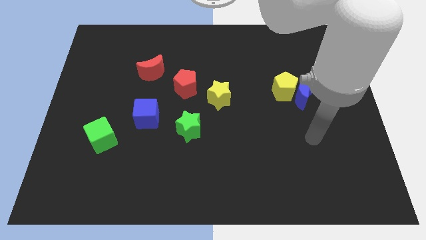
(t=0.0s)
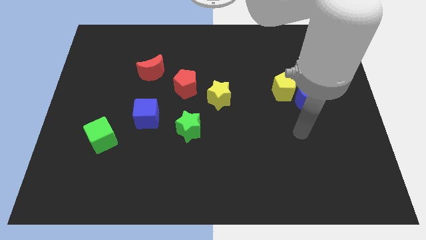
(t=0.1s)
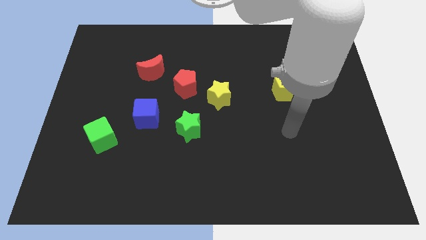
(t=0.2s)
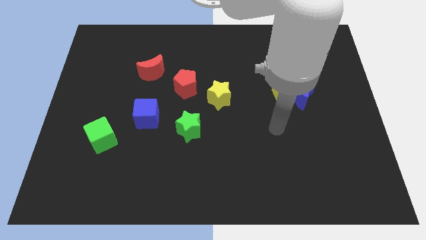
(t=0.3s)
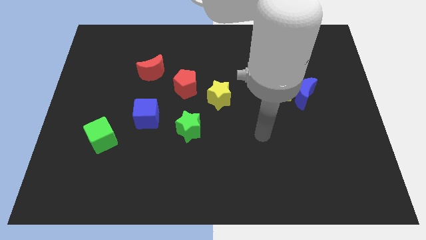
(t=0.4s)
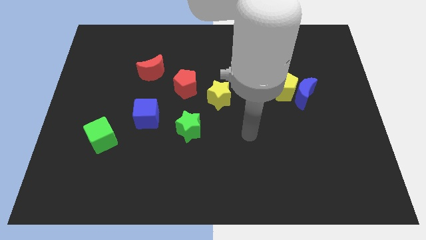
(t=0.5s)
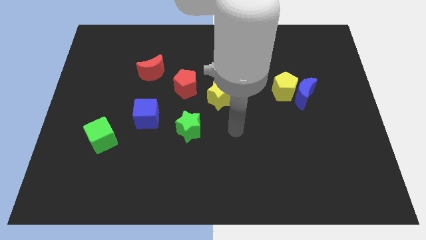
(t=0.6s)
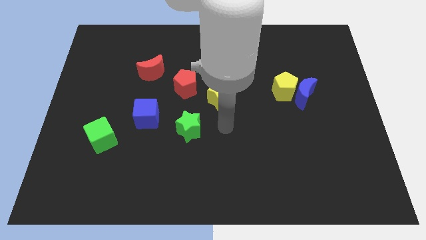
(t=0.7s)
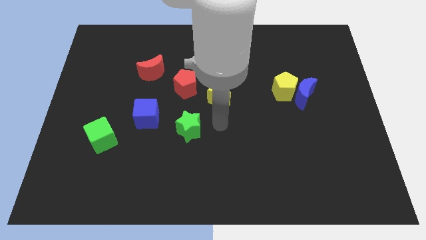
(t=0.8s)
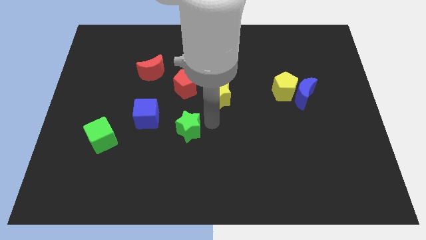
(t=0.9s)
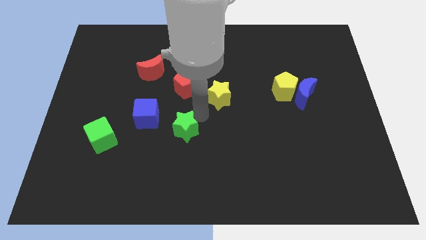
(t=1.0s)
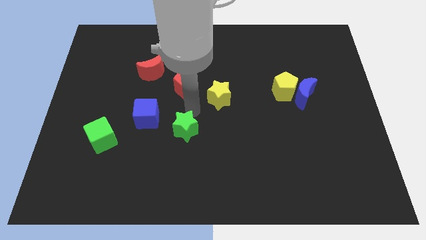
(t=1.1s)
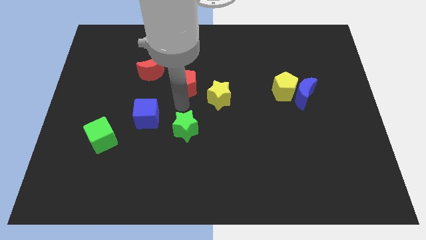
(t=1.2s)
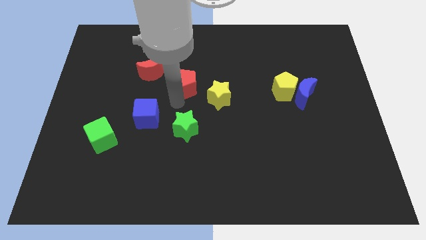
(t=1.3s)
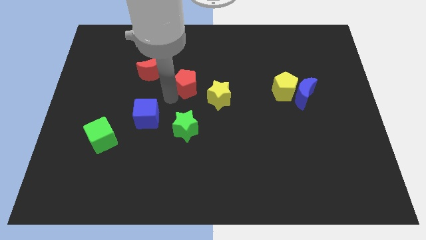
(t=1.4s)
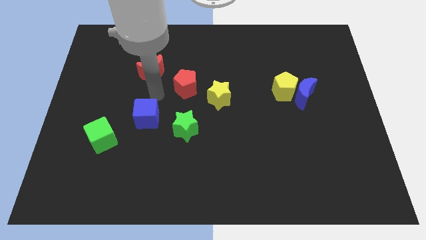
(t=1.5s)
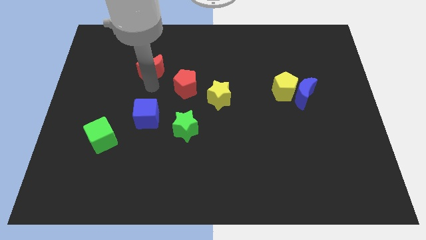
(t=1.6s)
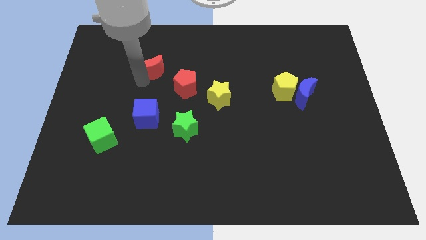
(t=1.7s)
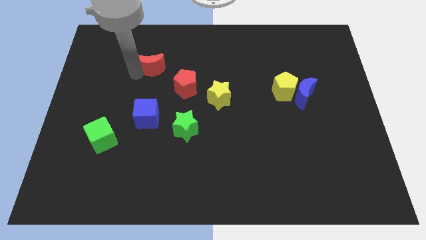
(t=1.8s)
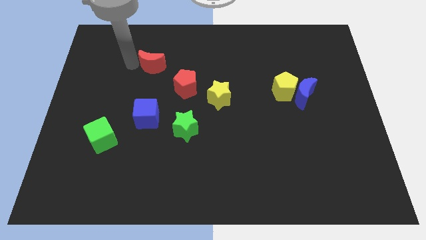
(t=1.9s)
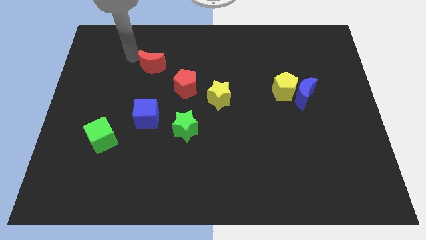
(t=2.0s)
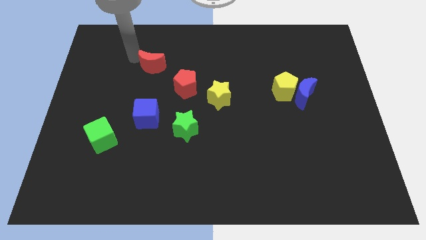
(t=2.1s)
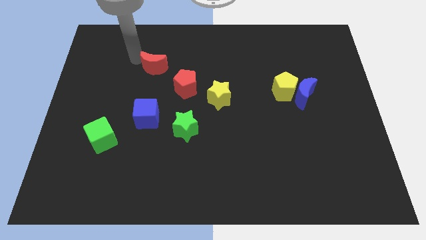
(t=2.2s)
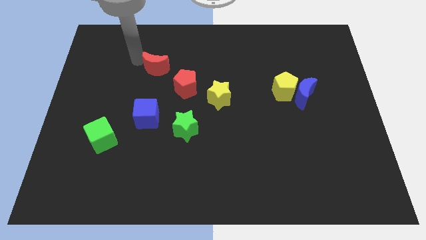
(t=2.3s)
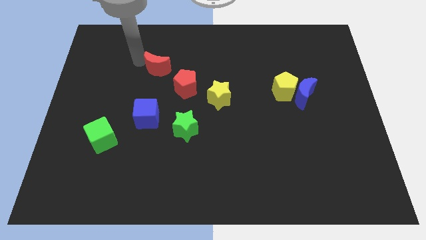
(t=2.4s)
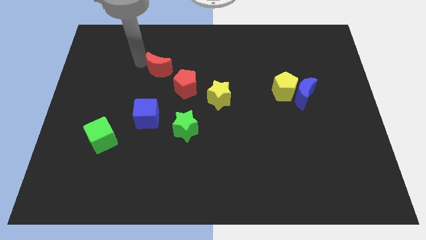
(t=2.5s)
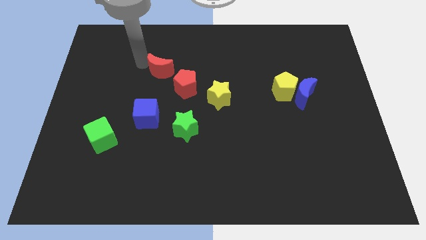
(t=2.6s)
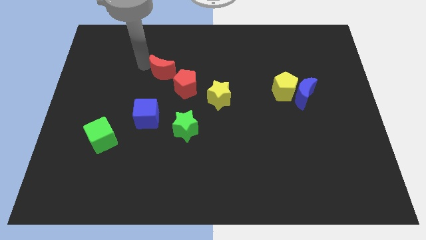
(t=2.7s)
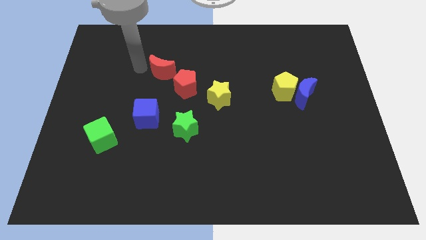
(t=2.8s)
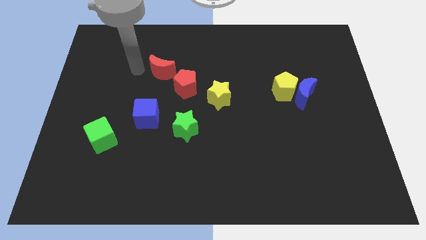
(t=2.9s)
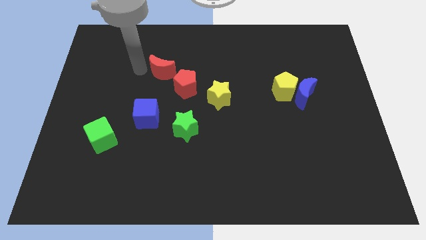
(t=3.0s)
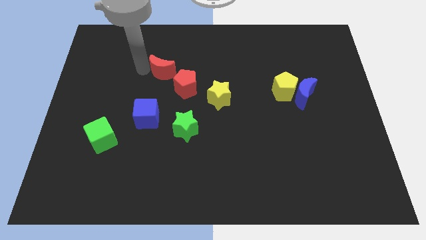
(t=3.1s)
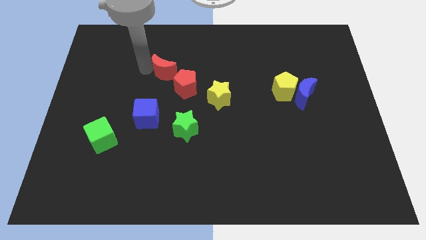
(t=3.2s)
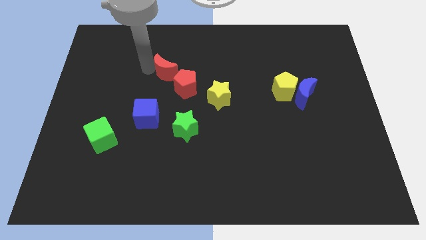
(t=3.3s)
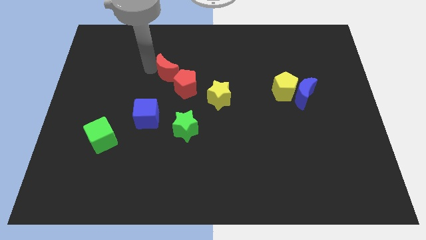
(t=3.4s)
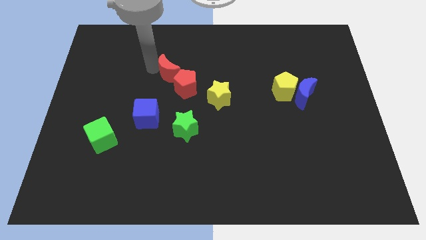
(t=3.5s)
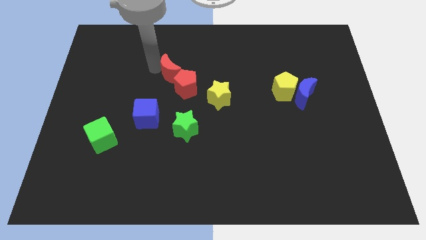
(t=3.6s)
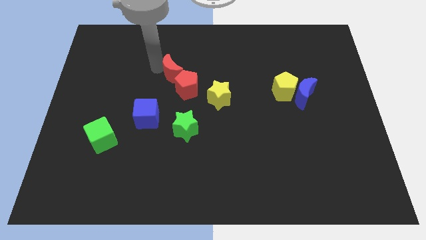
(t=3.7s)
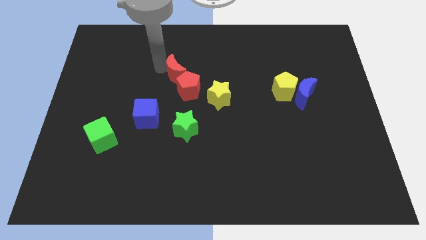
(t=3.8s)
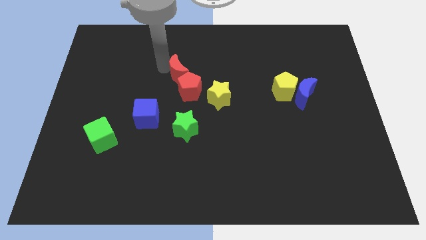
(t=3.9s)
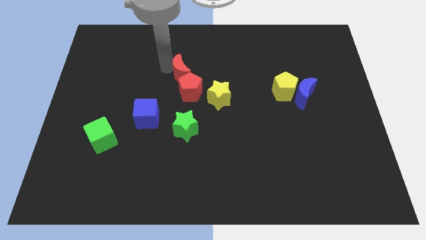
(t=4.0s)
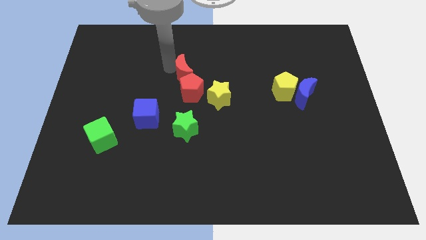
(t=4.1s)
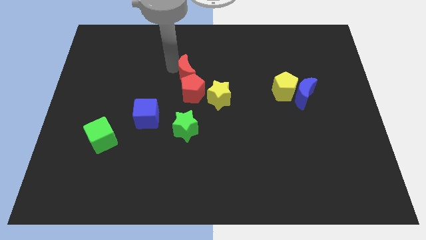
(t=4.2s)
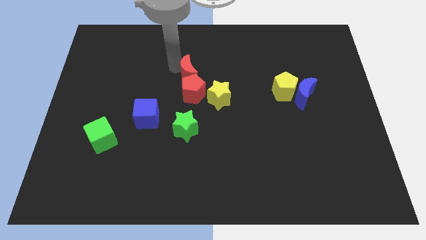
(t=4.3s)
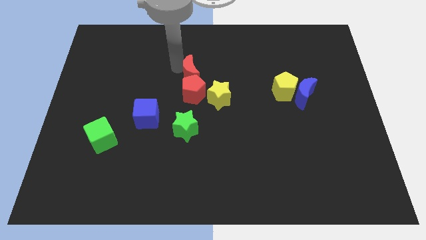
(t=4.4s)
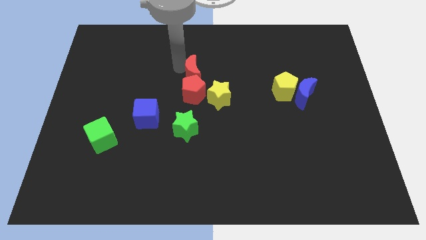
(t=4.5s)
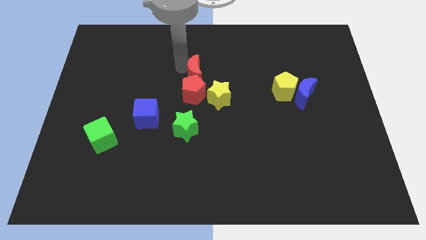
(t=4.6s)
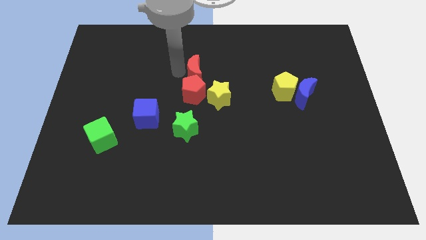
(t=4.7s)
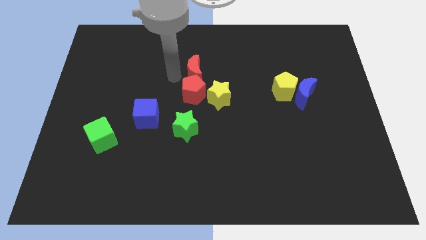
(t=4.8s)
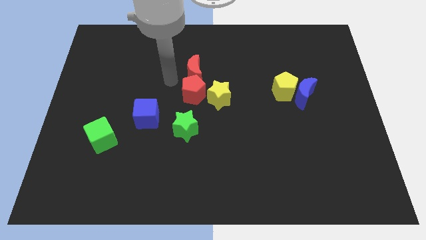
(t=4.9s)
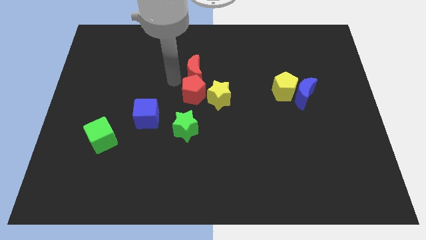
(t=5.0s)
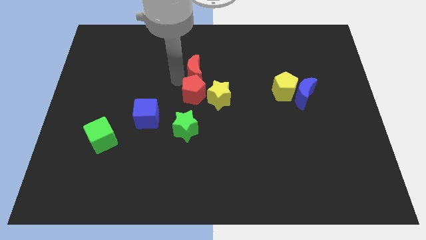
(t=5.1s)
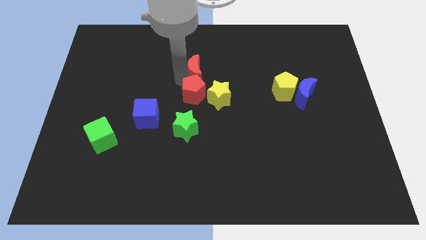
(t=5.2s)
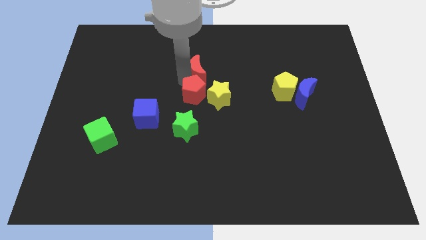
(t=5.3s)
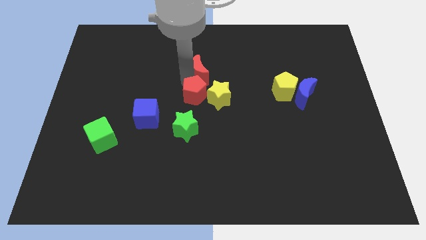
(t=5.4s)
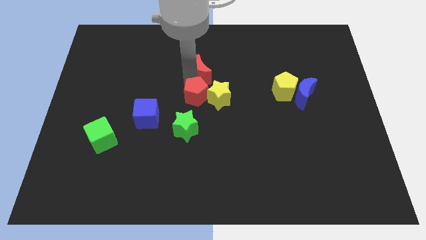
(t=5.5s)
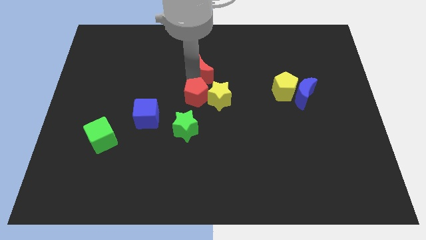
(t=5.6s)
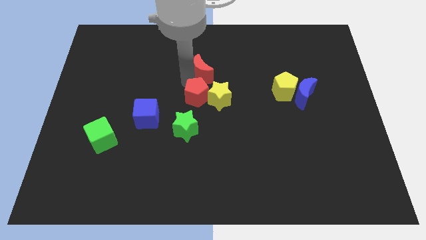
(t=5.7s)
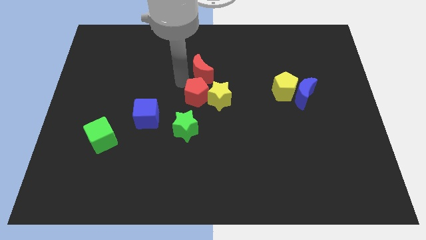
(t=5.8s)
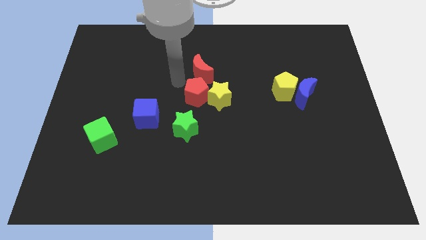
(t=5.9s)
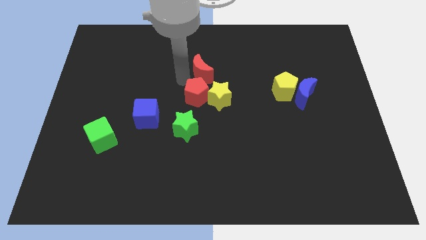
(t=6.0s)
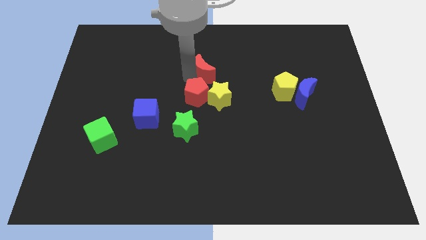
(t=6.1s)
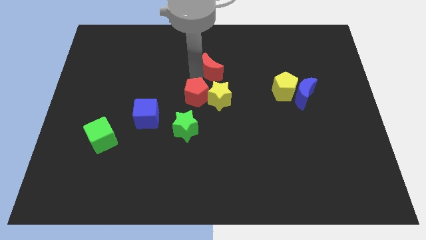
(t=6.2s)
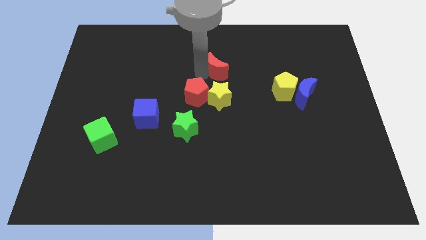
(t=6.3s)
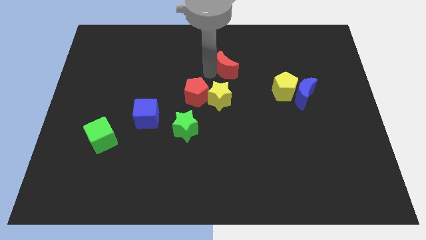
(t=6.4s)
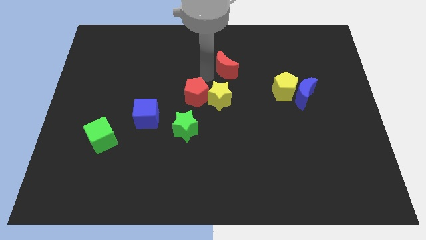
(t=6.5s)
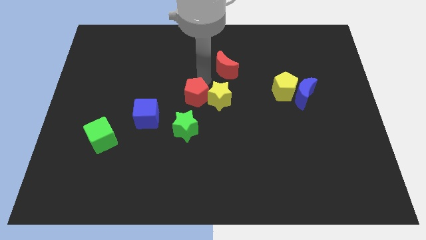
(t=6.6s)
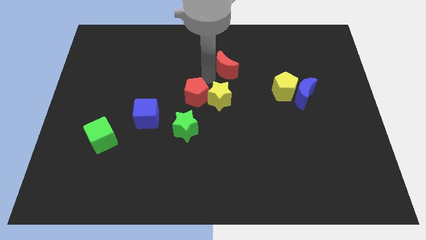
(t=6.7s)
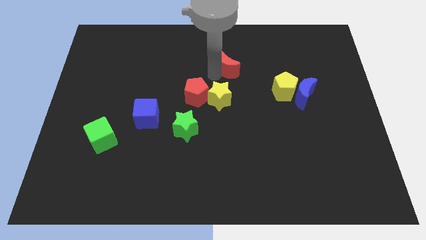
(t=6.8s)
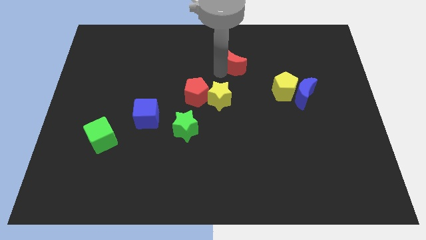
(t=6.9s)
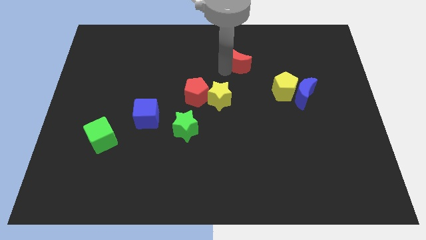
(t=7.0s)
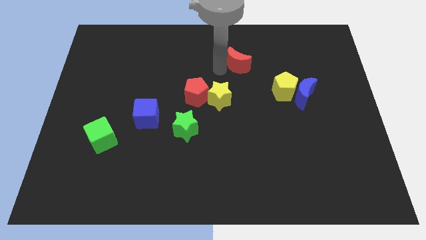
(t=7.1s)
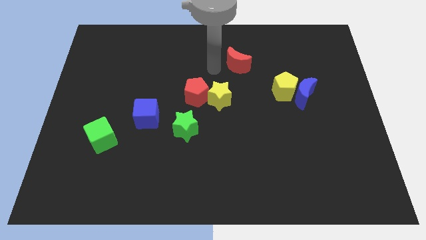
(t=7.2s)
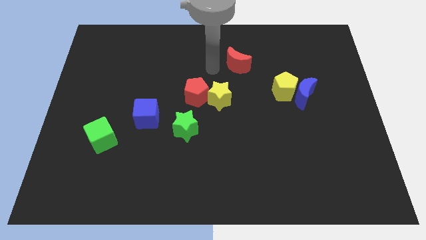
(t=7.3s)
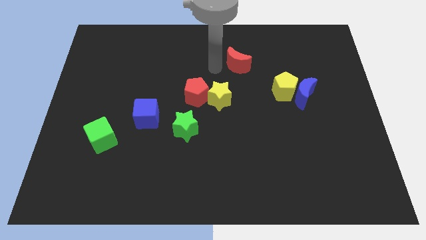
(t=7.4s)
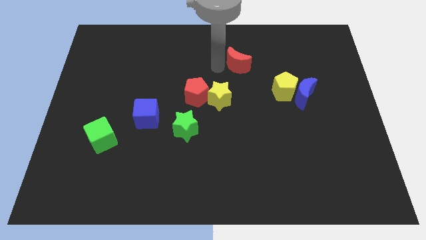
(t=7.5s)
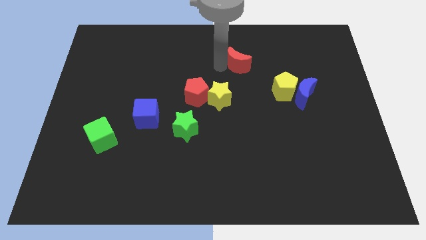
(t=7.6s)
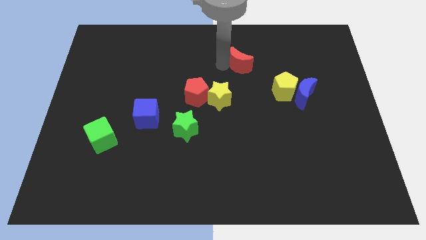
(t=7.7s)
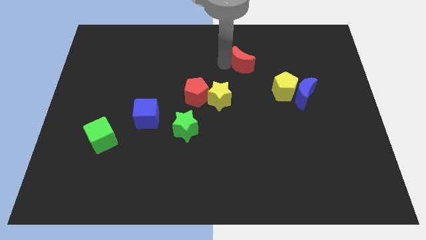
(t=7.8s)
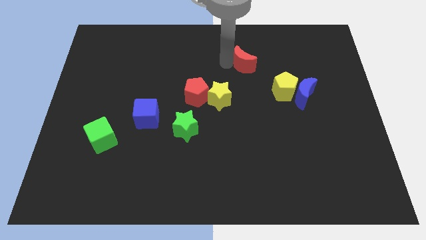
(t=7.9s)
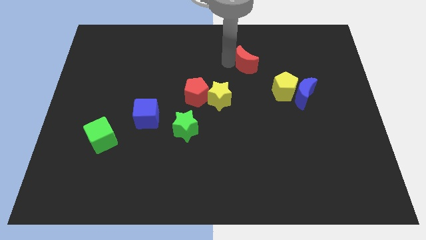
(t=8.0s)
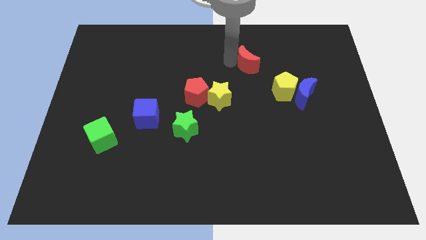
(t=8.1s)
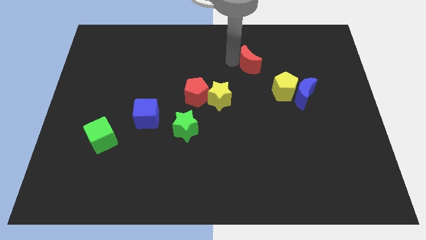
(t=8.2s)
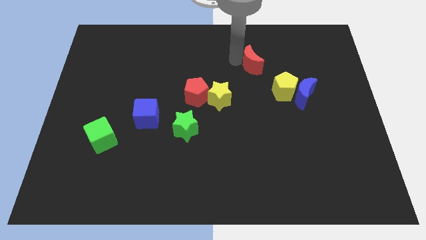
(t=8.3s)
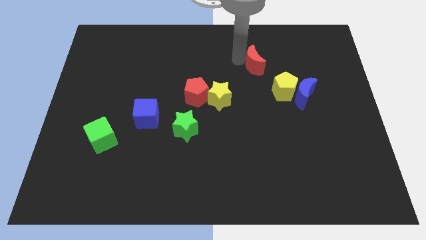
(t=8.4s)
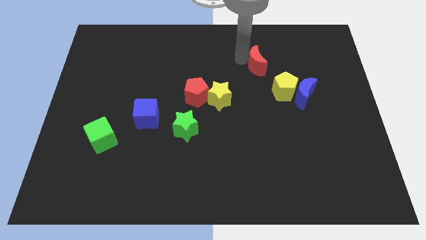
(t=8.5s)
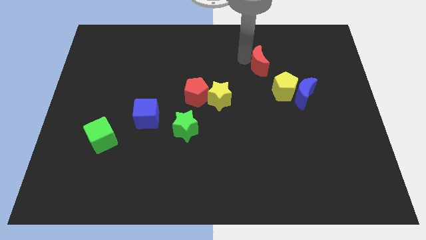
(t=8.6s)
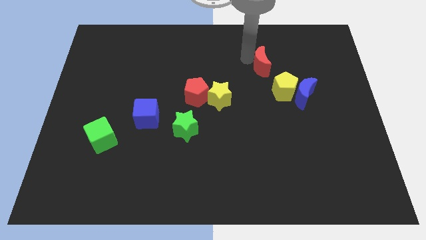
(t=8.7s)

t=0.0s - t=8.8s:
move the red moon above the yellow pentagon

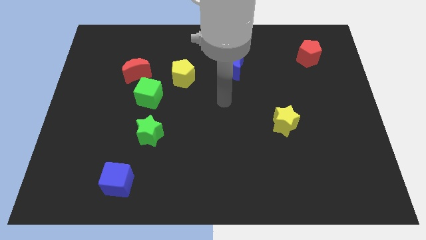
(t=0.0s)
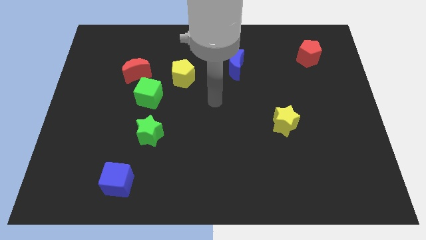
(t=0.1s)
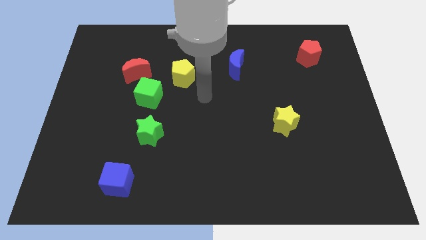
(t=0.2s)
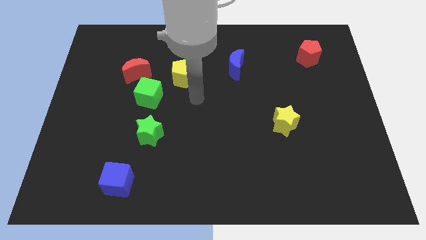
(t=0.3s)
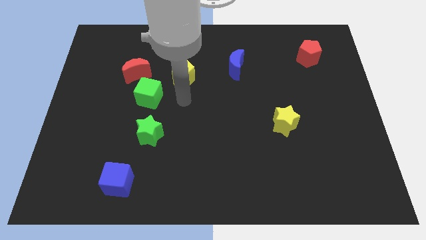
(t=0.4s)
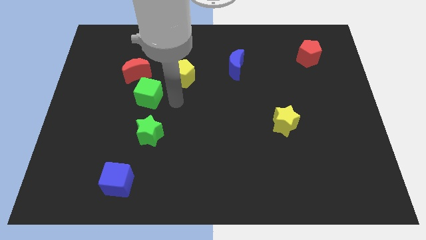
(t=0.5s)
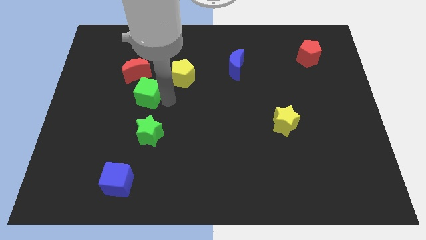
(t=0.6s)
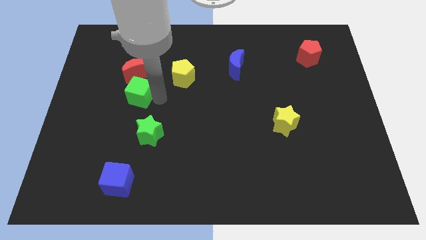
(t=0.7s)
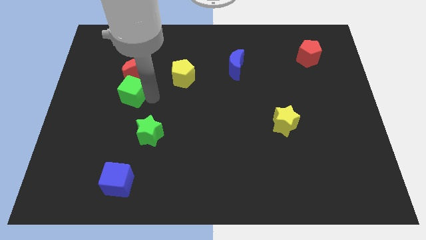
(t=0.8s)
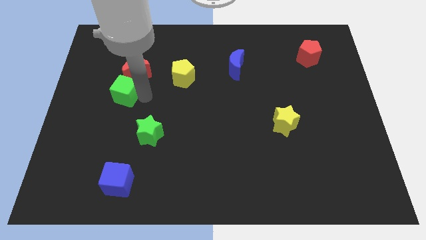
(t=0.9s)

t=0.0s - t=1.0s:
slide the green cube diagonally down and to the left of the red moon
